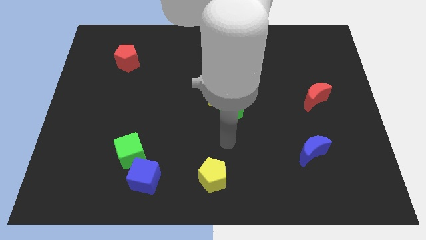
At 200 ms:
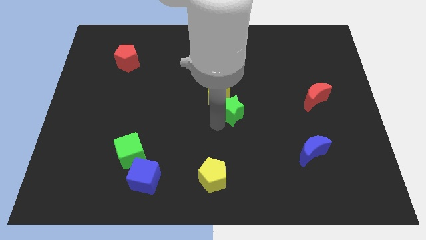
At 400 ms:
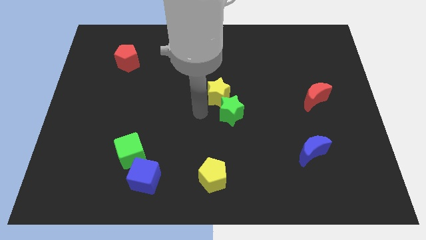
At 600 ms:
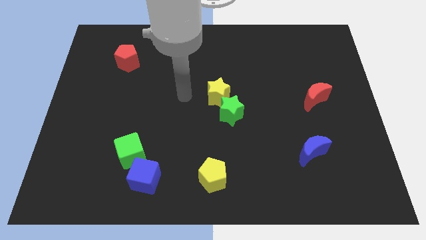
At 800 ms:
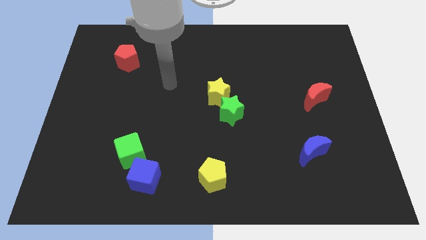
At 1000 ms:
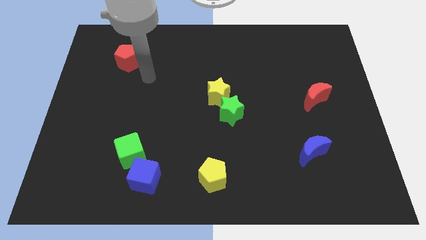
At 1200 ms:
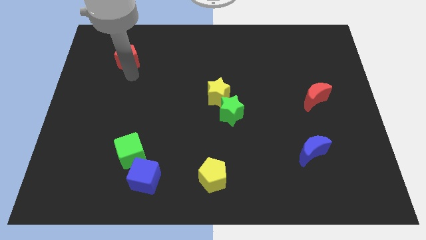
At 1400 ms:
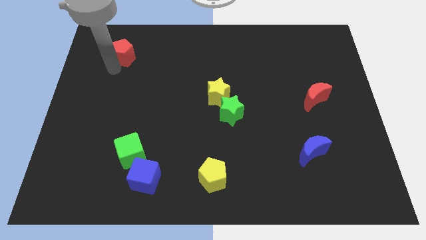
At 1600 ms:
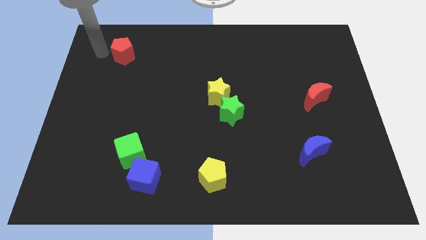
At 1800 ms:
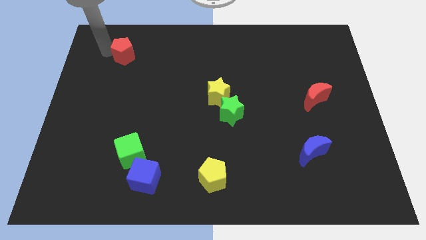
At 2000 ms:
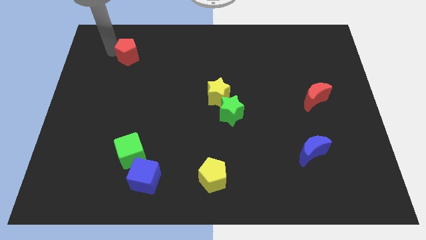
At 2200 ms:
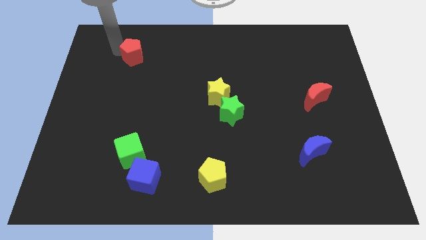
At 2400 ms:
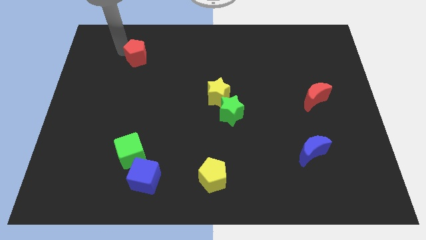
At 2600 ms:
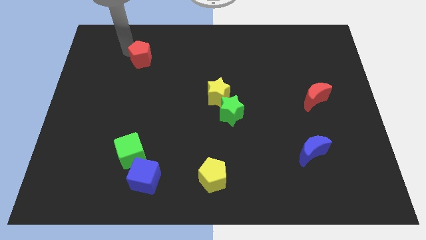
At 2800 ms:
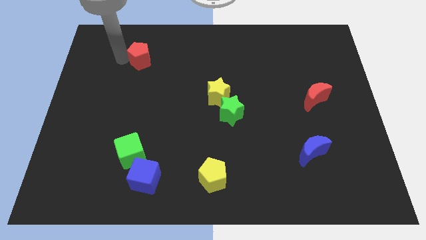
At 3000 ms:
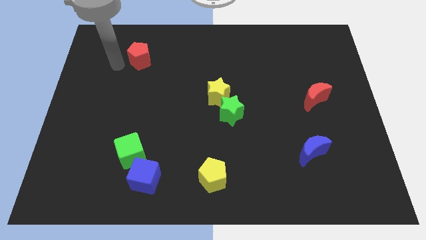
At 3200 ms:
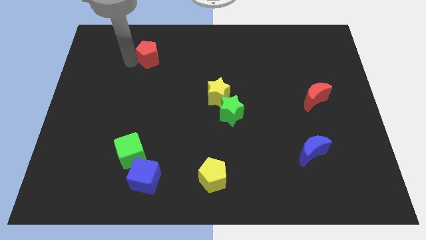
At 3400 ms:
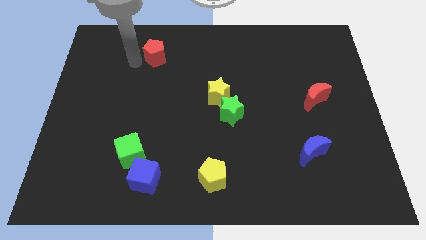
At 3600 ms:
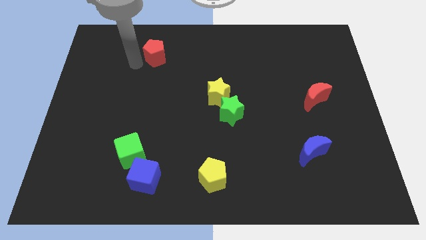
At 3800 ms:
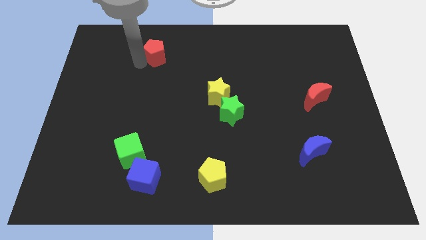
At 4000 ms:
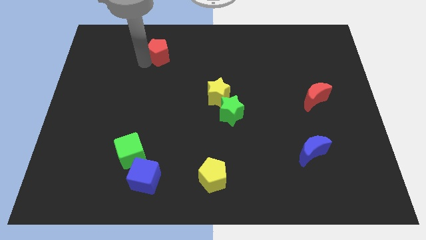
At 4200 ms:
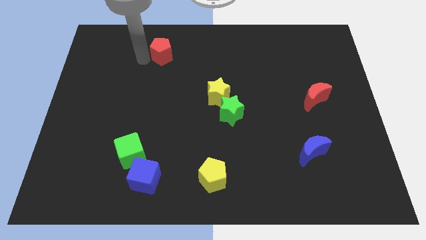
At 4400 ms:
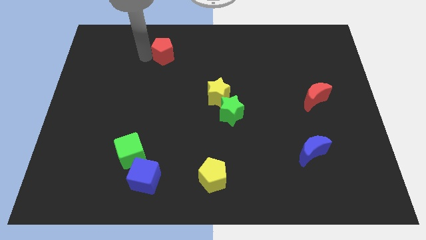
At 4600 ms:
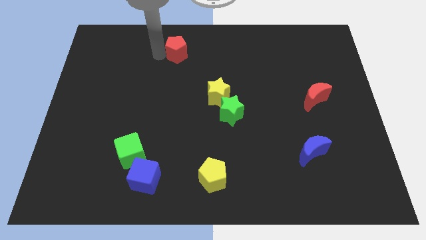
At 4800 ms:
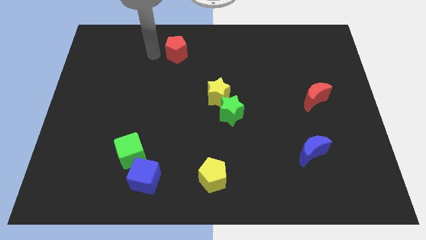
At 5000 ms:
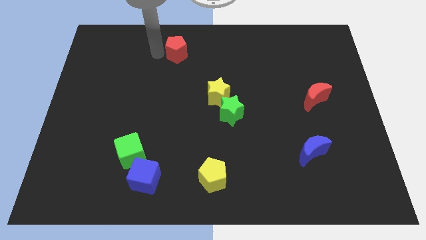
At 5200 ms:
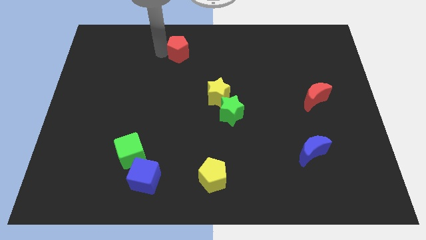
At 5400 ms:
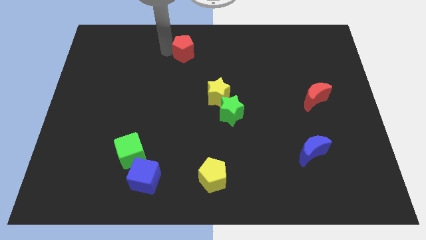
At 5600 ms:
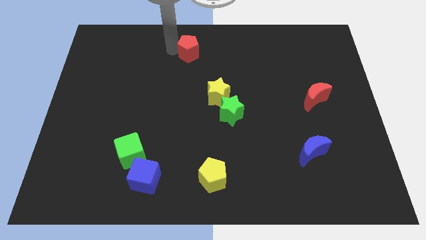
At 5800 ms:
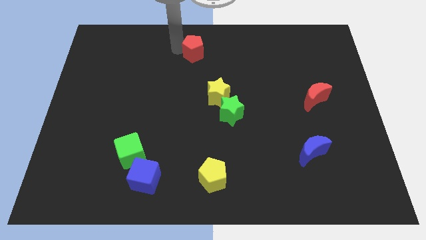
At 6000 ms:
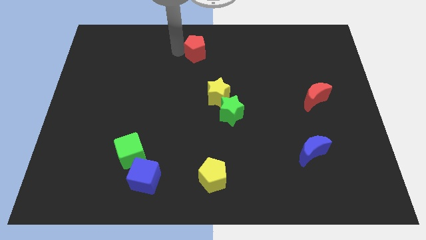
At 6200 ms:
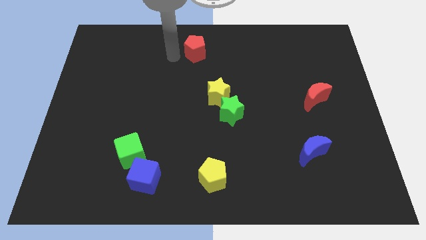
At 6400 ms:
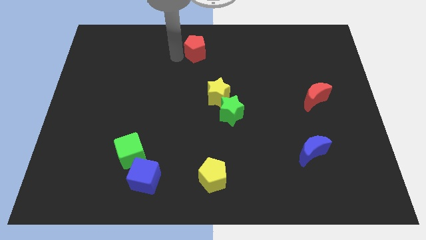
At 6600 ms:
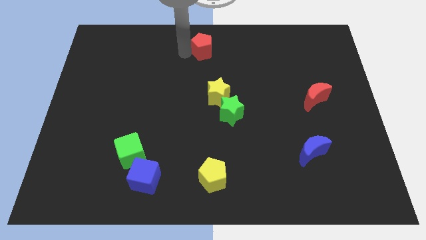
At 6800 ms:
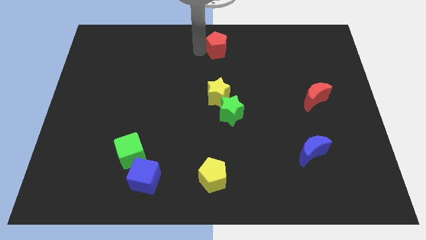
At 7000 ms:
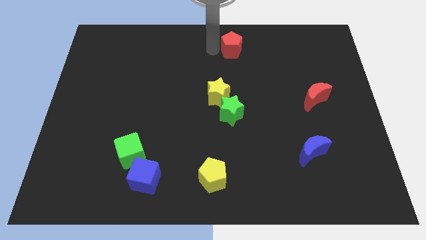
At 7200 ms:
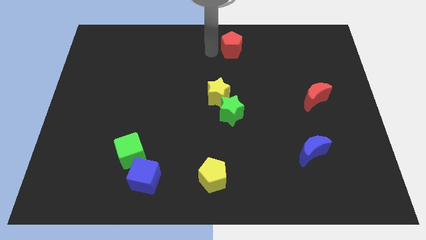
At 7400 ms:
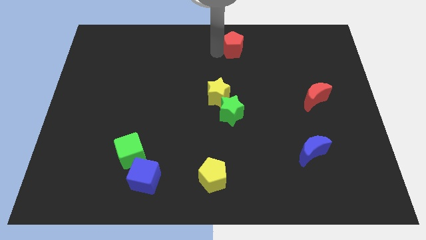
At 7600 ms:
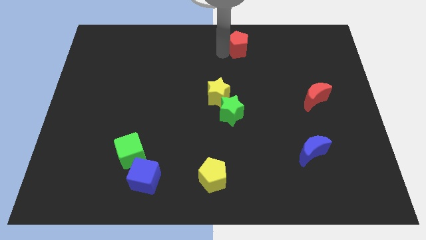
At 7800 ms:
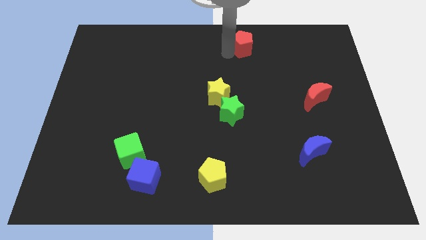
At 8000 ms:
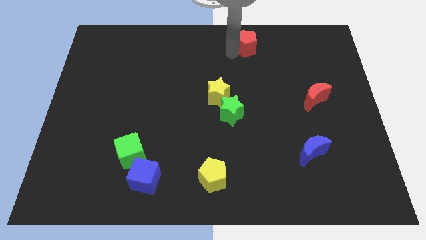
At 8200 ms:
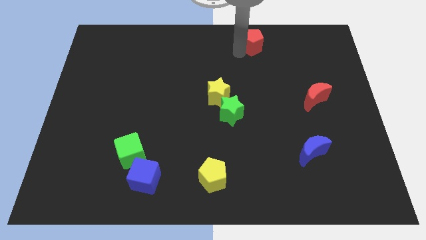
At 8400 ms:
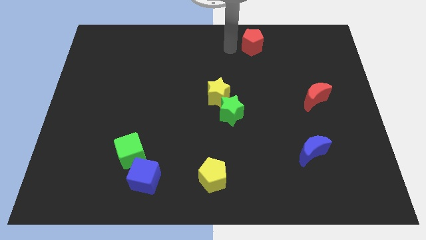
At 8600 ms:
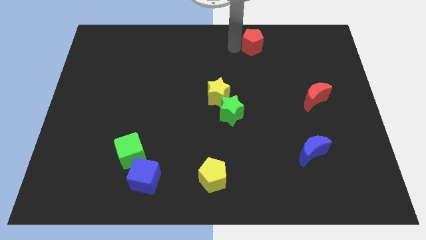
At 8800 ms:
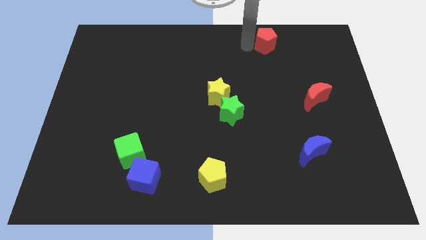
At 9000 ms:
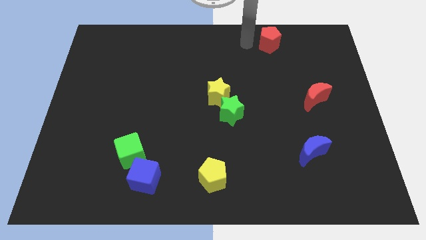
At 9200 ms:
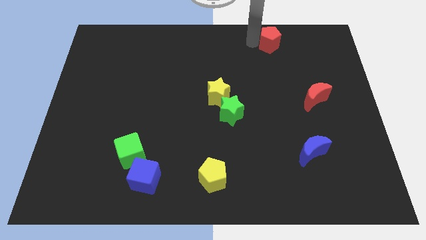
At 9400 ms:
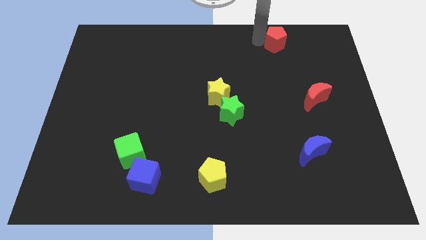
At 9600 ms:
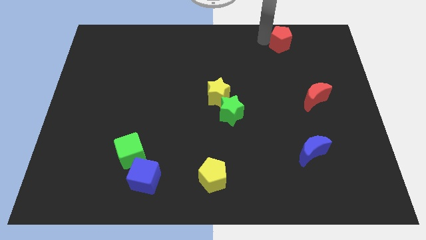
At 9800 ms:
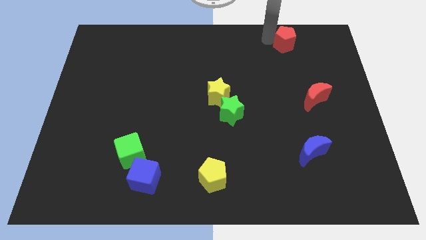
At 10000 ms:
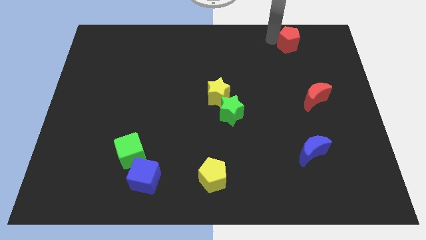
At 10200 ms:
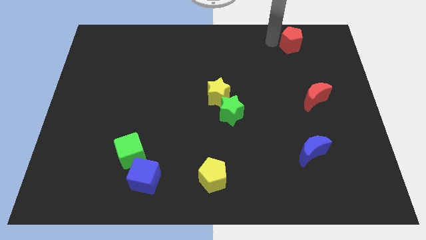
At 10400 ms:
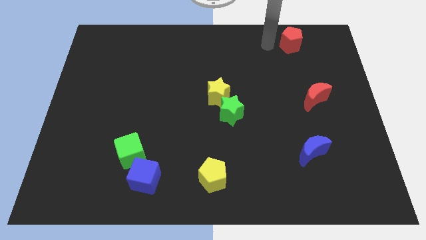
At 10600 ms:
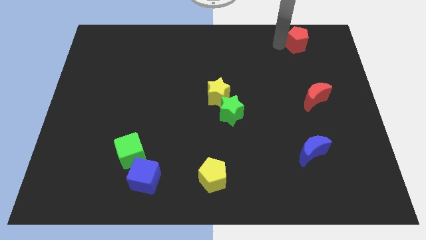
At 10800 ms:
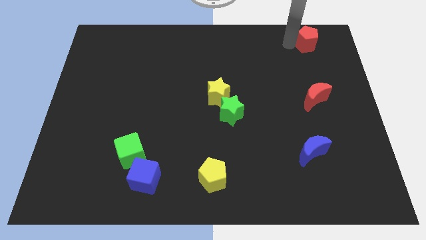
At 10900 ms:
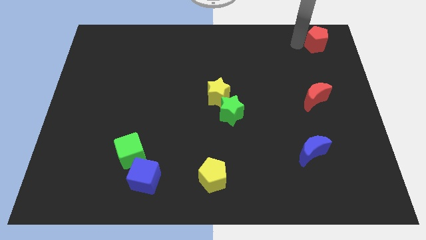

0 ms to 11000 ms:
move the red pentagon to the top right of the board
